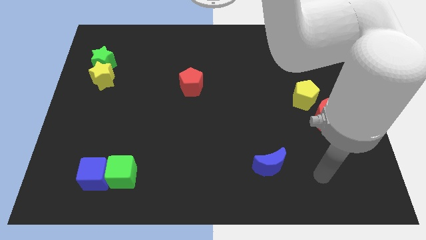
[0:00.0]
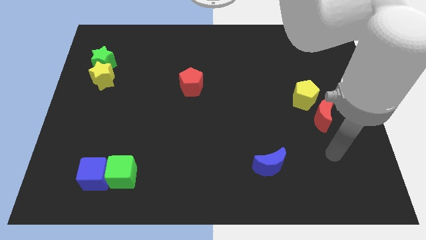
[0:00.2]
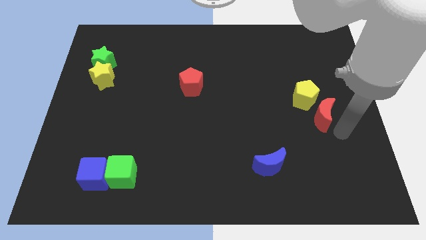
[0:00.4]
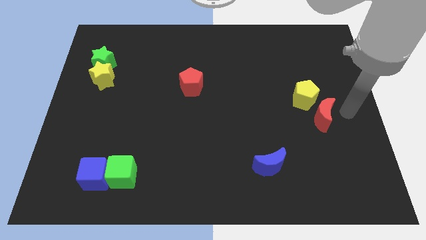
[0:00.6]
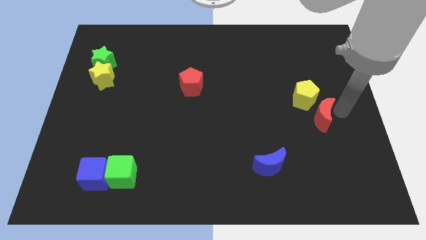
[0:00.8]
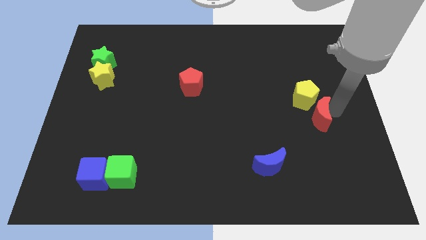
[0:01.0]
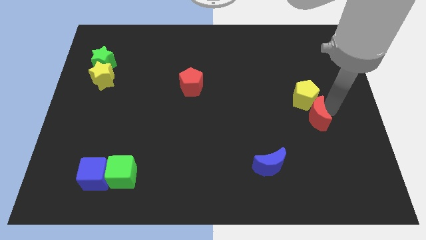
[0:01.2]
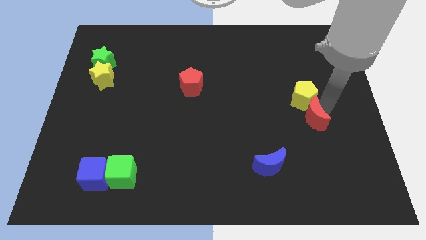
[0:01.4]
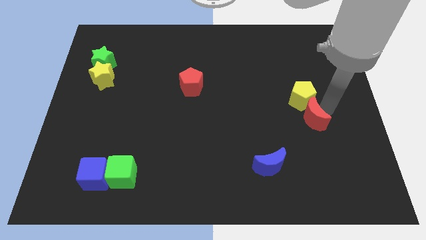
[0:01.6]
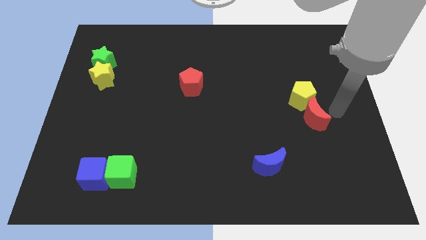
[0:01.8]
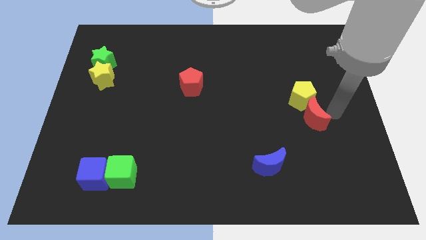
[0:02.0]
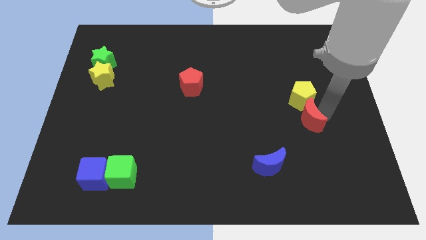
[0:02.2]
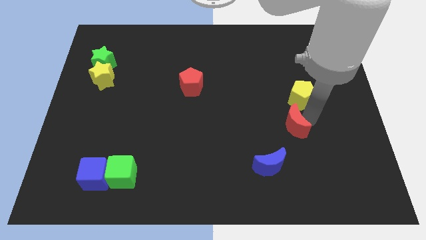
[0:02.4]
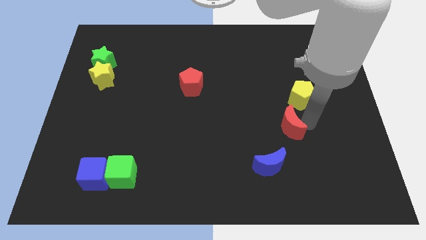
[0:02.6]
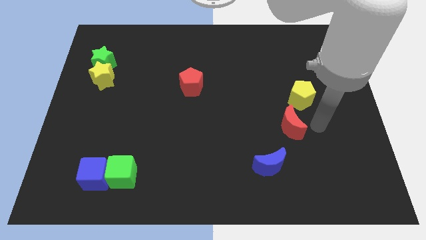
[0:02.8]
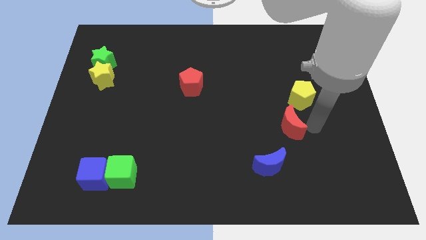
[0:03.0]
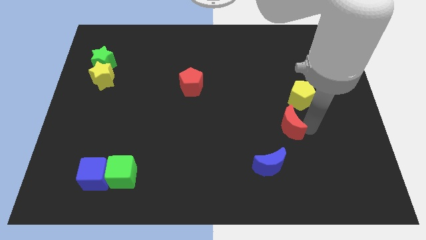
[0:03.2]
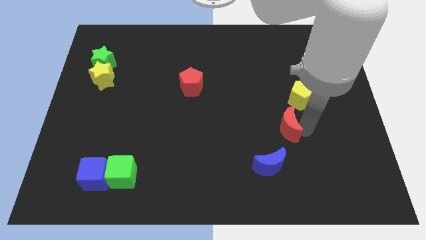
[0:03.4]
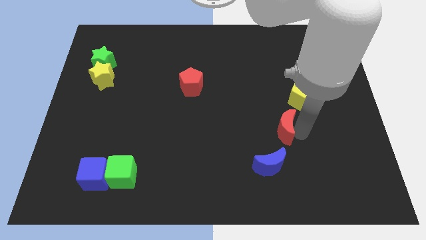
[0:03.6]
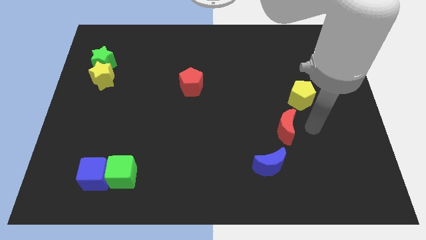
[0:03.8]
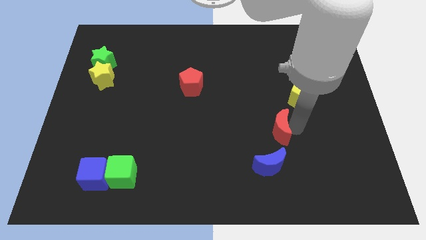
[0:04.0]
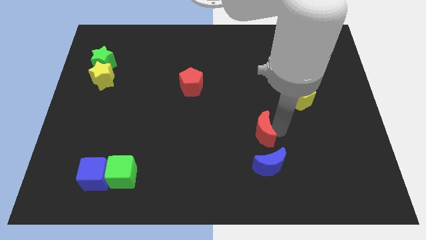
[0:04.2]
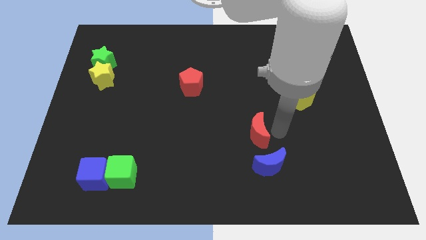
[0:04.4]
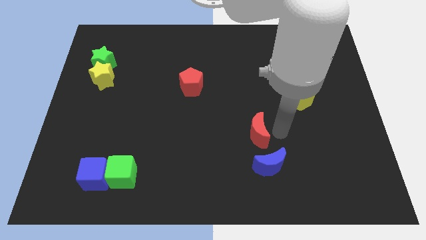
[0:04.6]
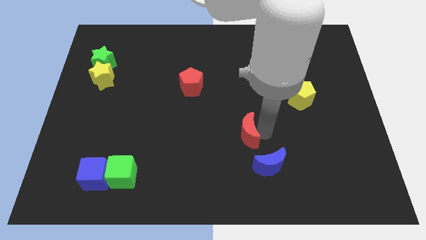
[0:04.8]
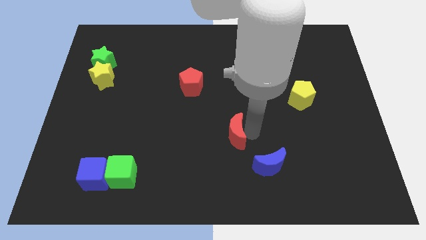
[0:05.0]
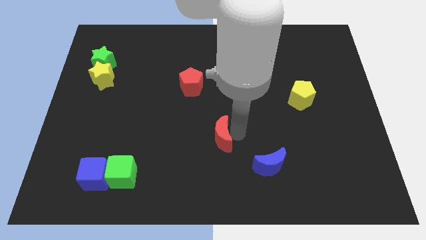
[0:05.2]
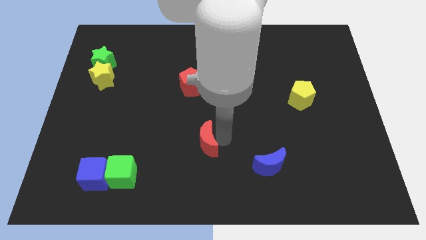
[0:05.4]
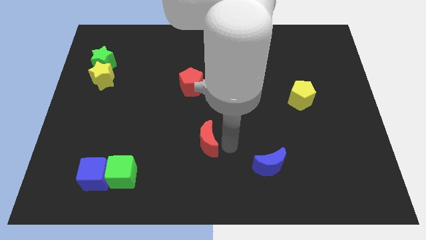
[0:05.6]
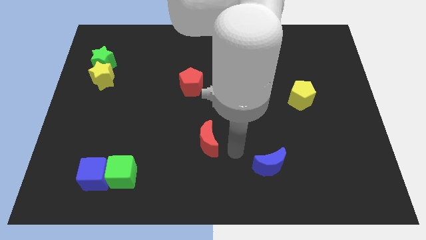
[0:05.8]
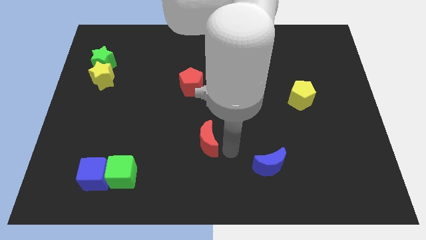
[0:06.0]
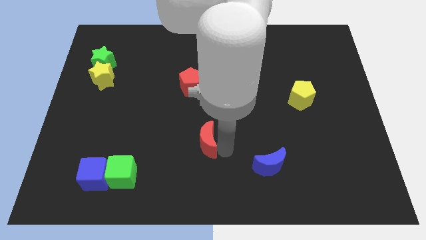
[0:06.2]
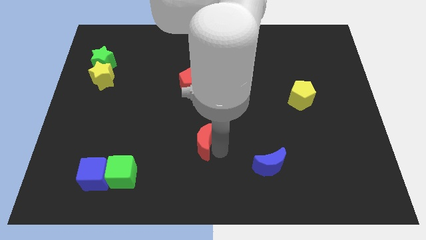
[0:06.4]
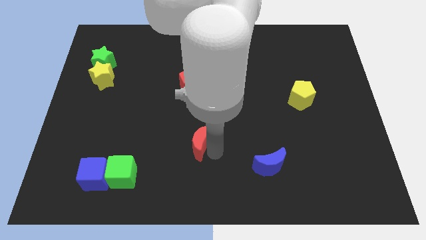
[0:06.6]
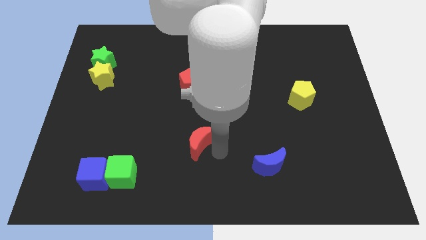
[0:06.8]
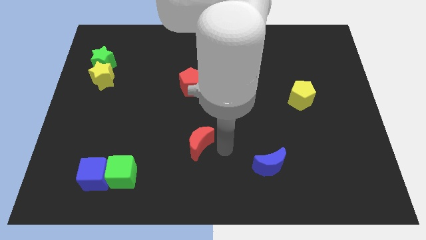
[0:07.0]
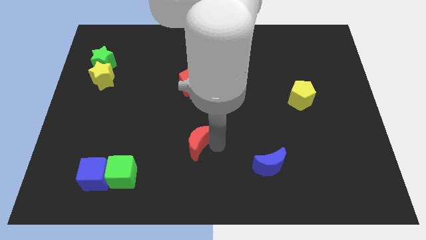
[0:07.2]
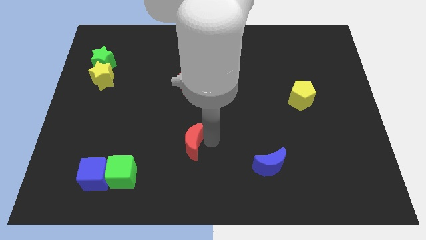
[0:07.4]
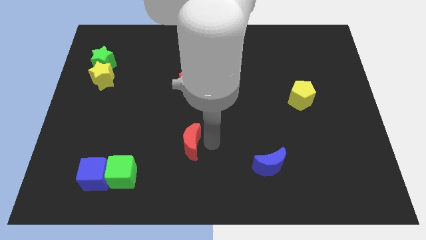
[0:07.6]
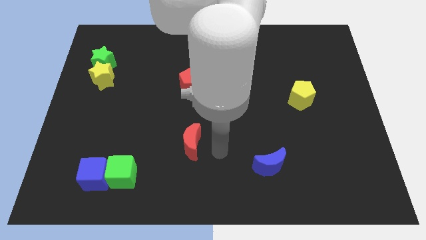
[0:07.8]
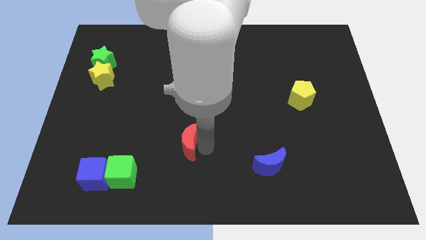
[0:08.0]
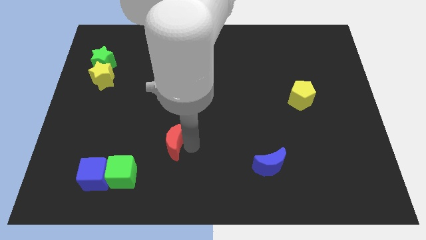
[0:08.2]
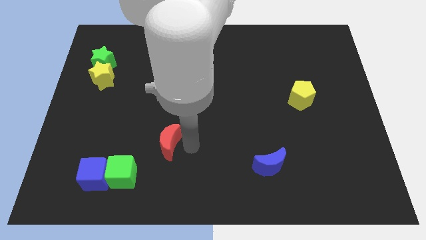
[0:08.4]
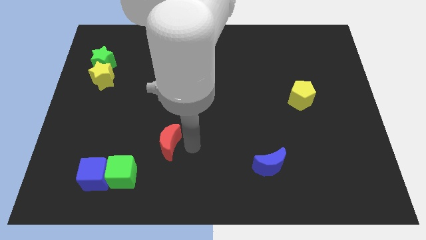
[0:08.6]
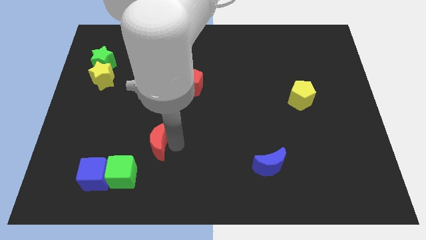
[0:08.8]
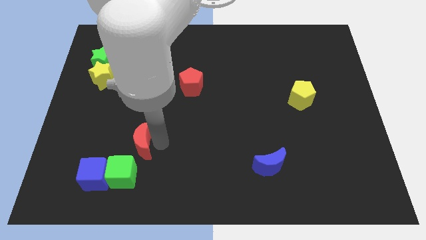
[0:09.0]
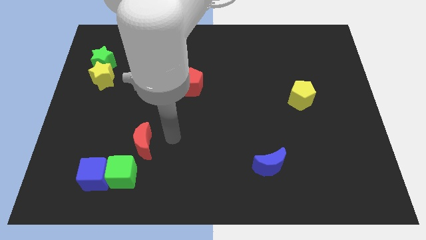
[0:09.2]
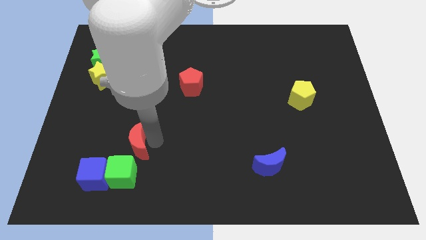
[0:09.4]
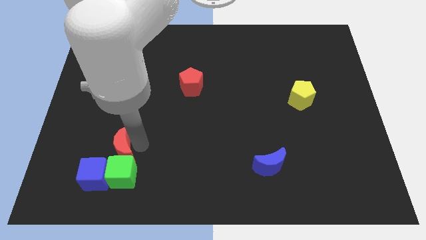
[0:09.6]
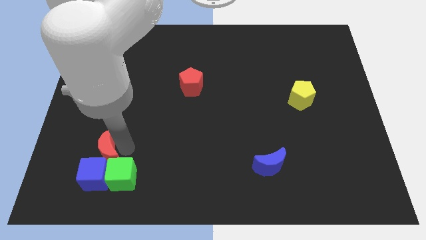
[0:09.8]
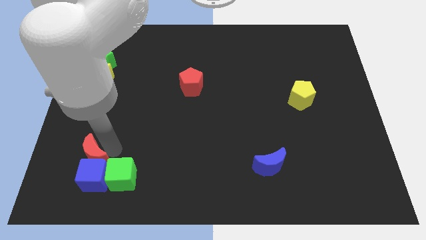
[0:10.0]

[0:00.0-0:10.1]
put the red moon to the left side of the green cube

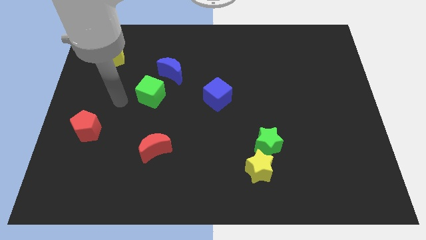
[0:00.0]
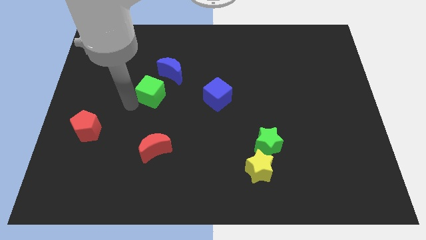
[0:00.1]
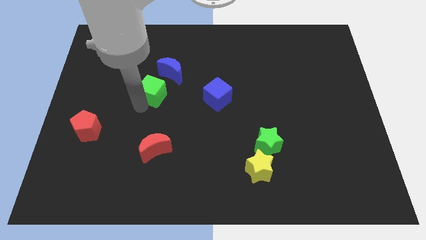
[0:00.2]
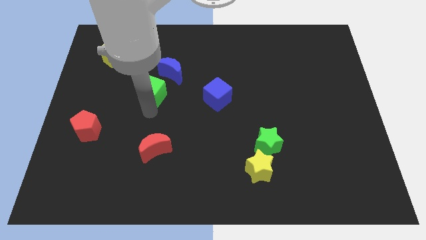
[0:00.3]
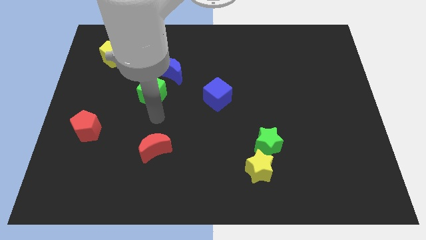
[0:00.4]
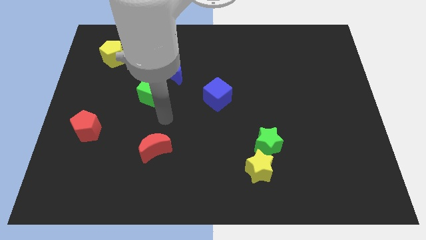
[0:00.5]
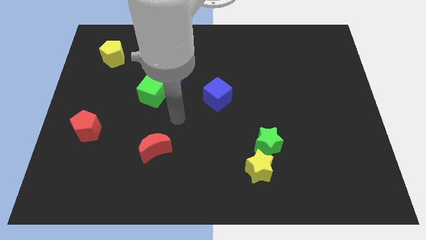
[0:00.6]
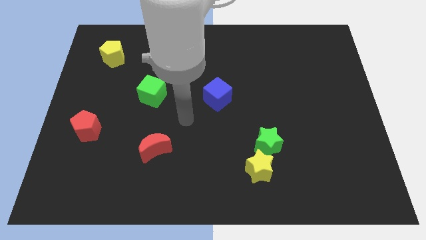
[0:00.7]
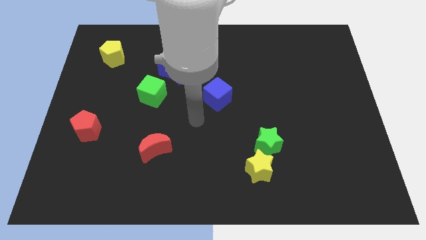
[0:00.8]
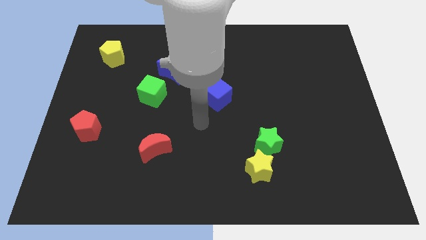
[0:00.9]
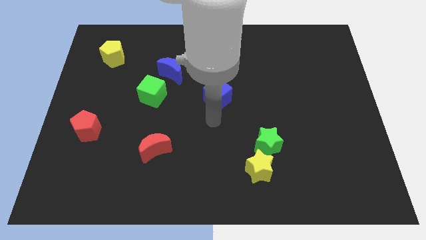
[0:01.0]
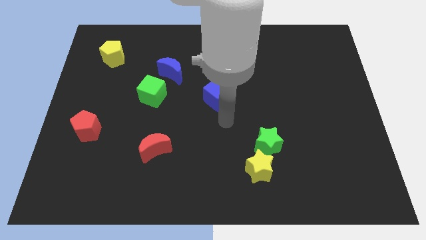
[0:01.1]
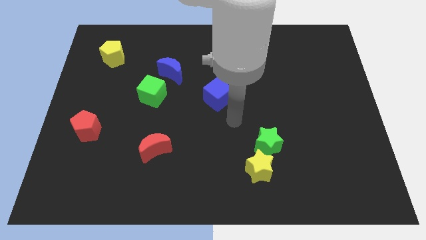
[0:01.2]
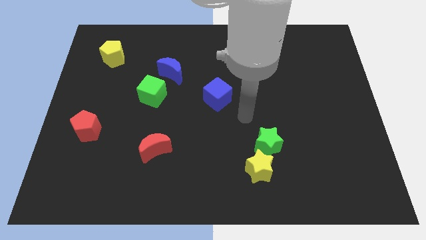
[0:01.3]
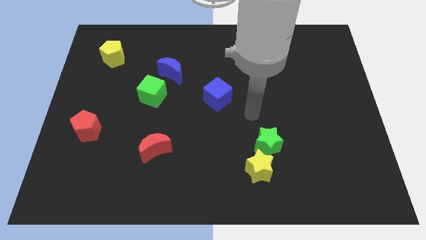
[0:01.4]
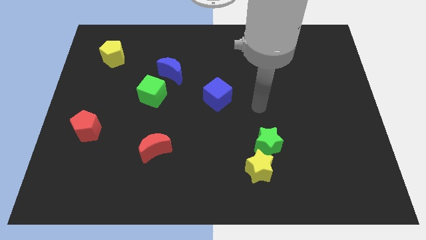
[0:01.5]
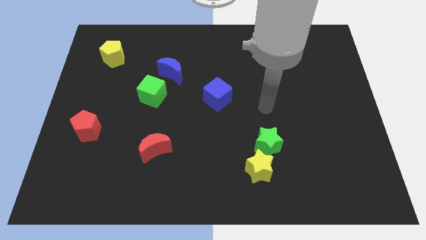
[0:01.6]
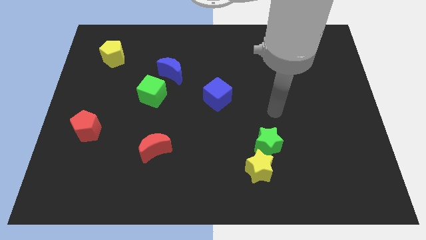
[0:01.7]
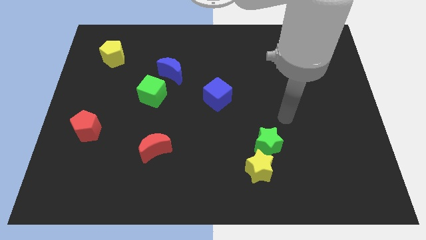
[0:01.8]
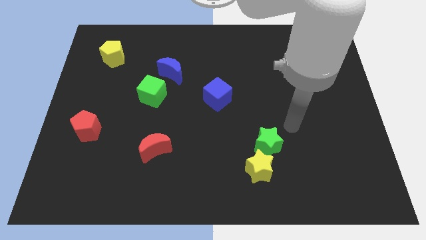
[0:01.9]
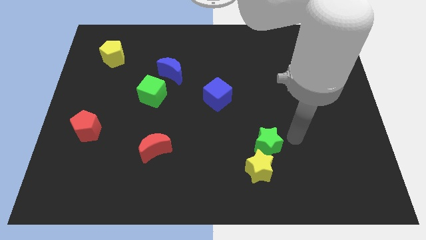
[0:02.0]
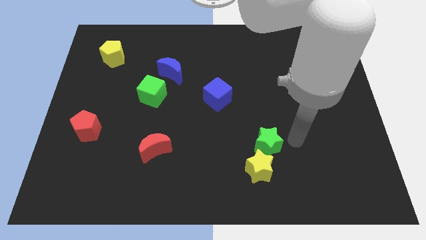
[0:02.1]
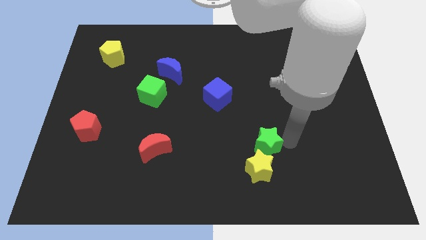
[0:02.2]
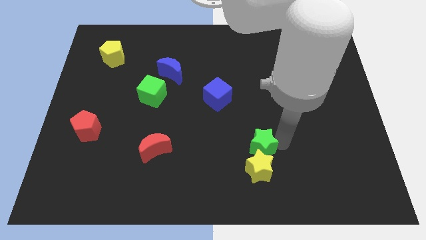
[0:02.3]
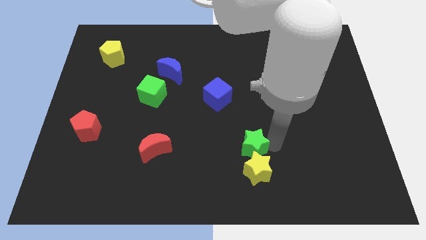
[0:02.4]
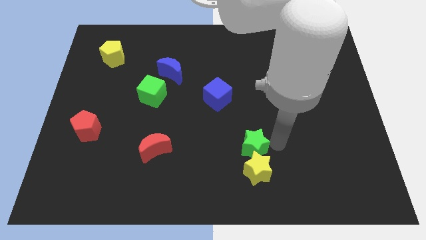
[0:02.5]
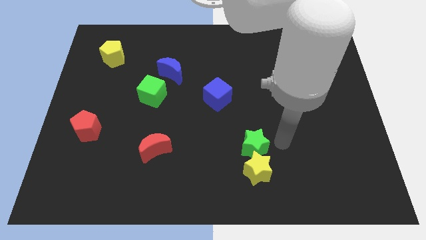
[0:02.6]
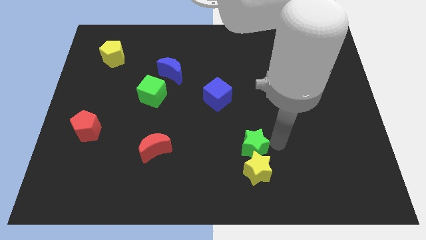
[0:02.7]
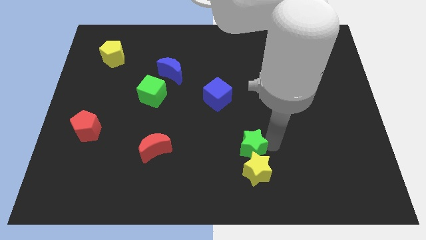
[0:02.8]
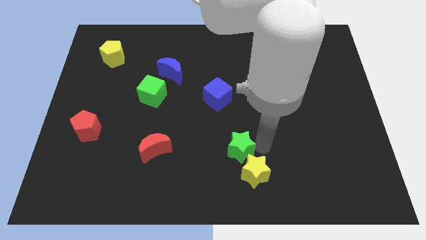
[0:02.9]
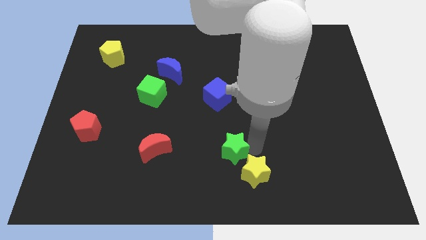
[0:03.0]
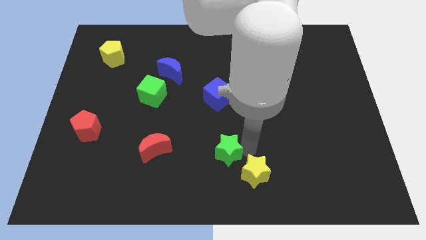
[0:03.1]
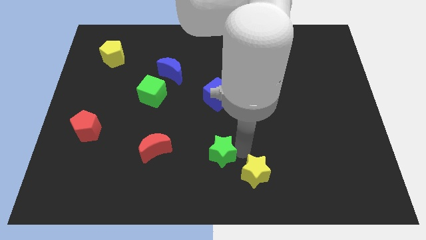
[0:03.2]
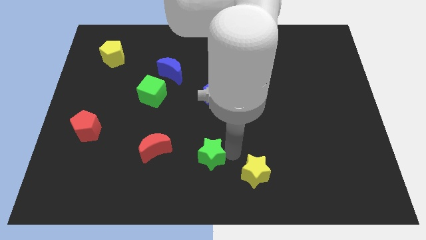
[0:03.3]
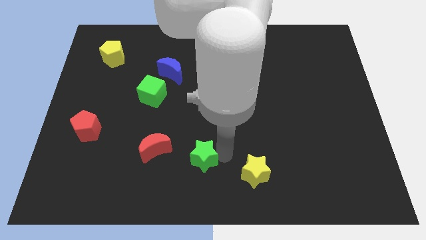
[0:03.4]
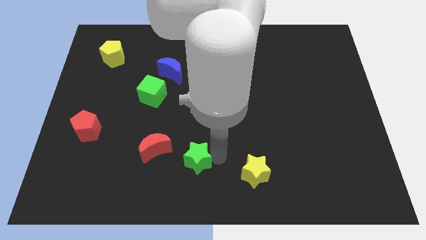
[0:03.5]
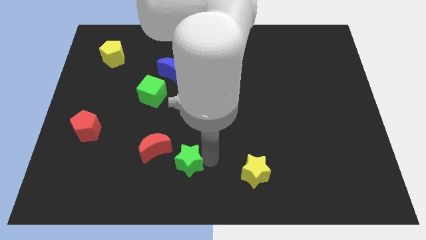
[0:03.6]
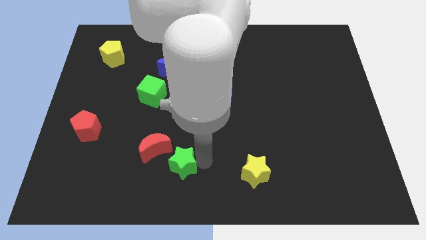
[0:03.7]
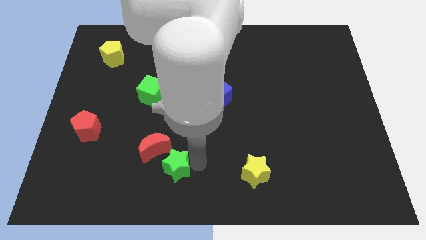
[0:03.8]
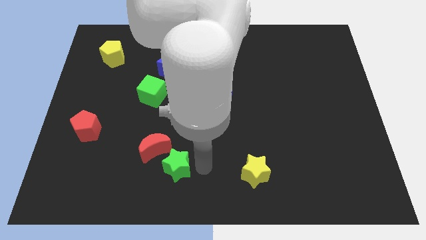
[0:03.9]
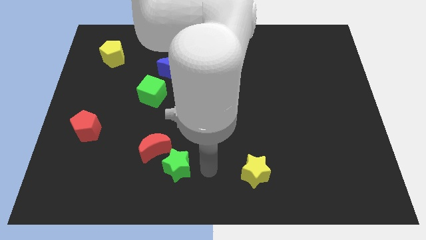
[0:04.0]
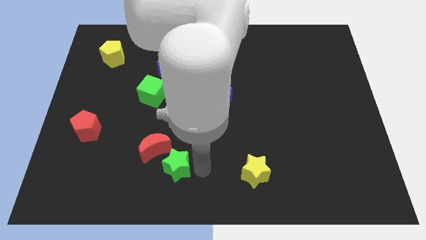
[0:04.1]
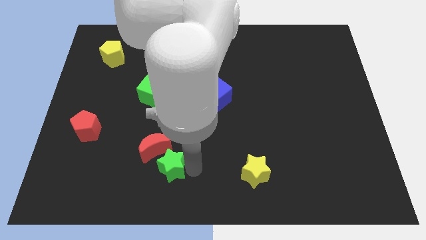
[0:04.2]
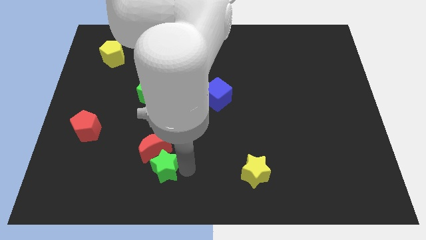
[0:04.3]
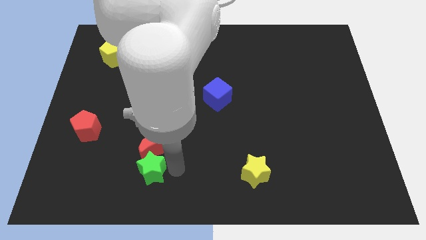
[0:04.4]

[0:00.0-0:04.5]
push the green star to the bottom left side of the red moon
